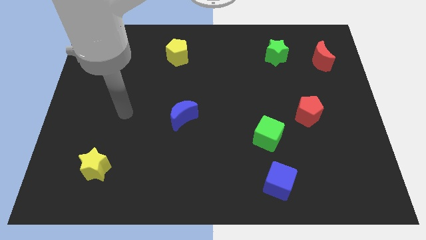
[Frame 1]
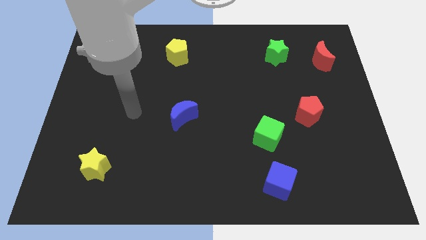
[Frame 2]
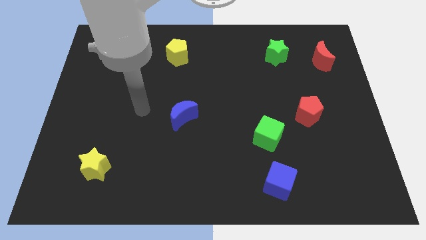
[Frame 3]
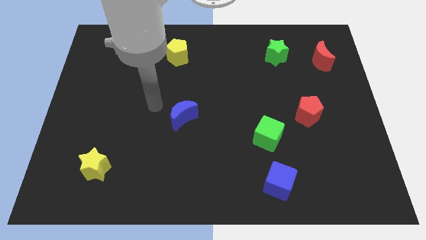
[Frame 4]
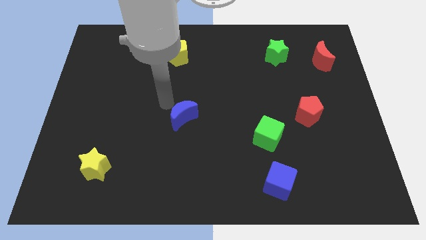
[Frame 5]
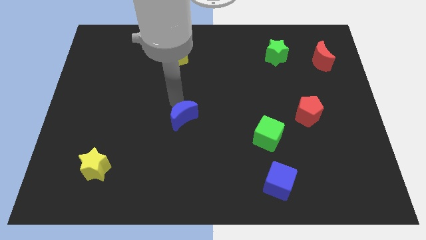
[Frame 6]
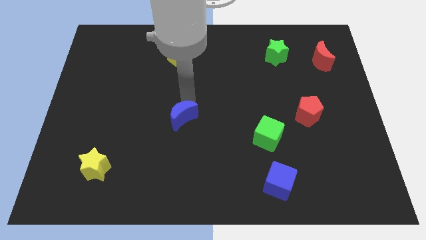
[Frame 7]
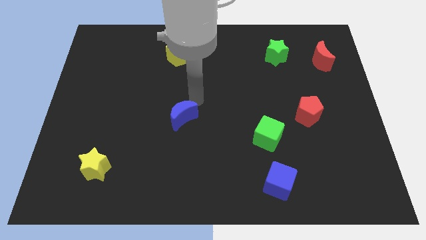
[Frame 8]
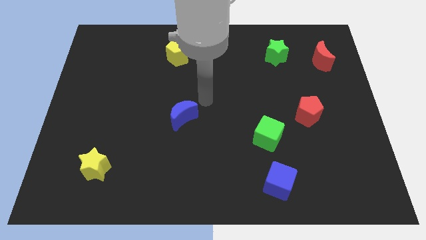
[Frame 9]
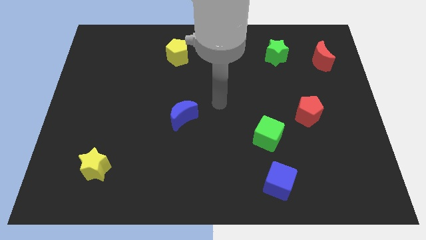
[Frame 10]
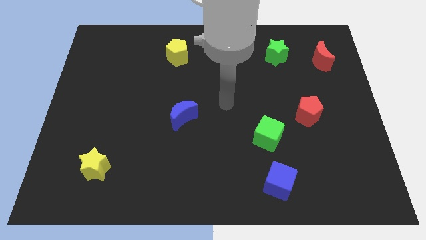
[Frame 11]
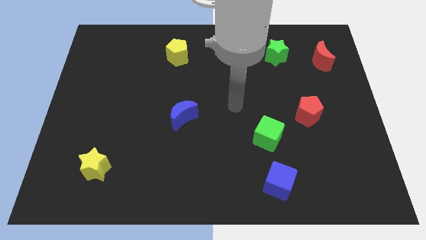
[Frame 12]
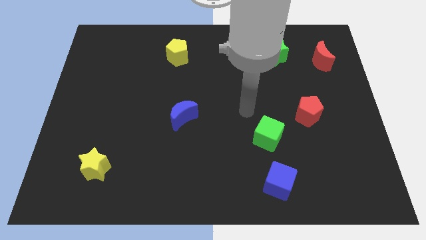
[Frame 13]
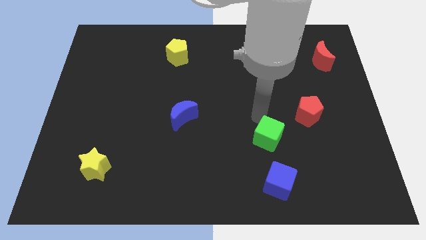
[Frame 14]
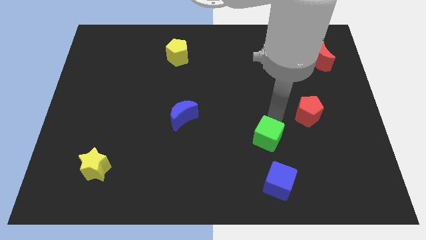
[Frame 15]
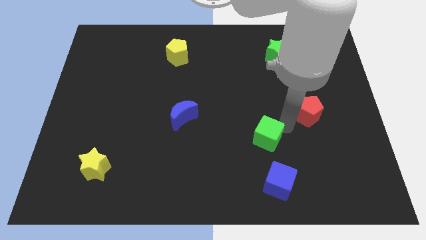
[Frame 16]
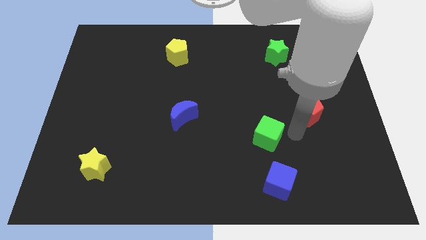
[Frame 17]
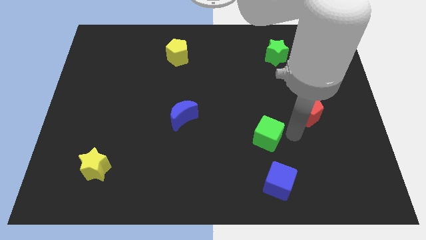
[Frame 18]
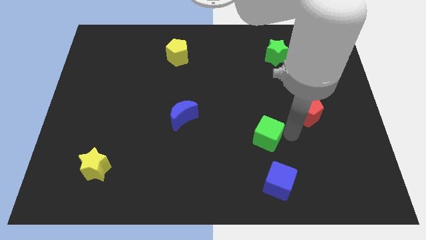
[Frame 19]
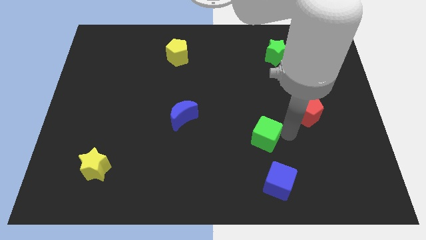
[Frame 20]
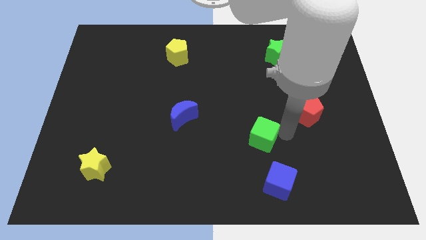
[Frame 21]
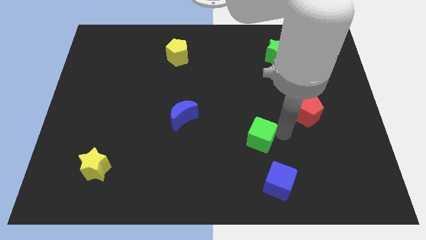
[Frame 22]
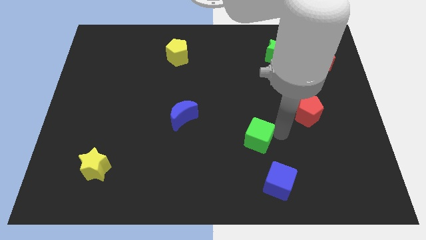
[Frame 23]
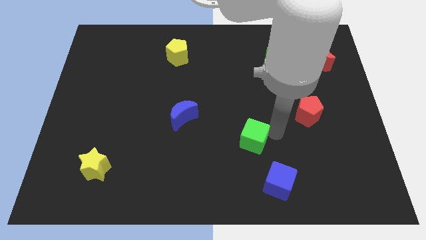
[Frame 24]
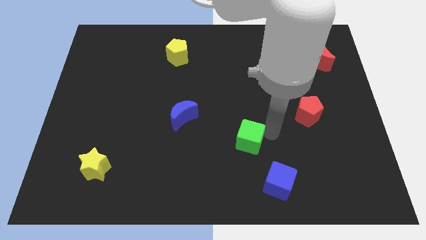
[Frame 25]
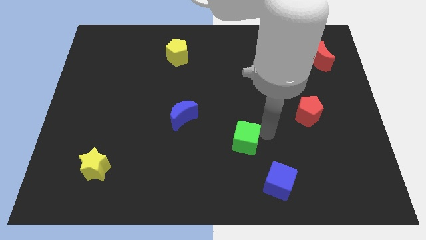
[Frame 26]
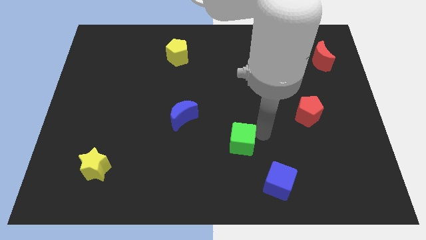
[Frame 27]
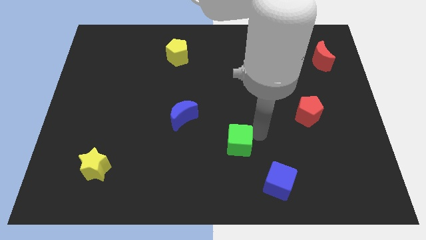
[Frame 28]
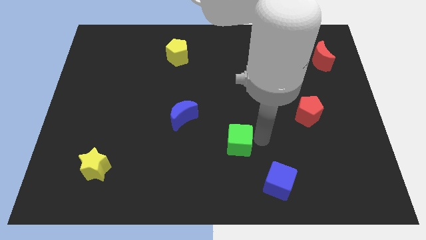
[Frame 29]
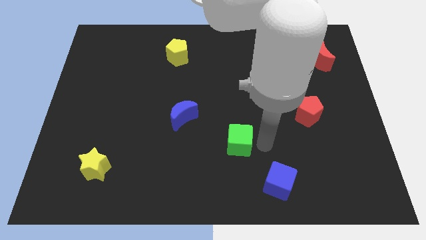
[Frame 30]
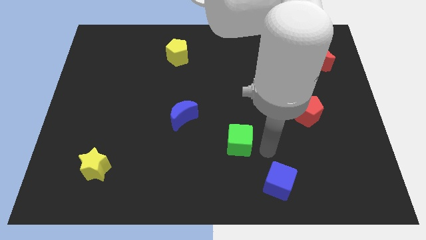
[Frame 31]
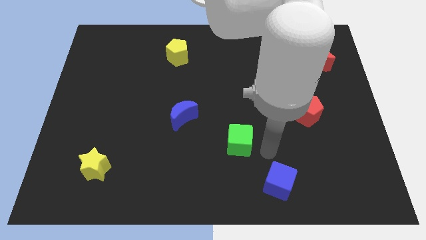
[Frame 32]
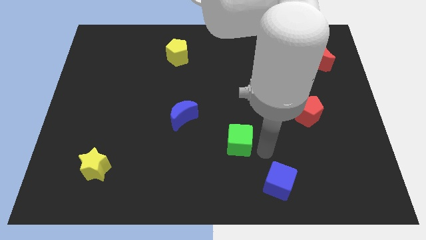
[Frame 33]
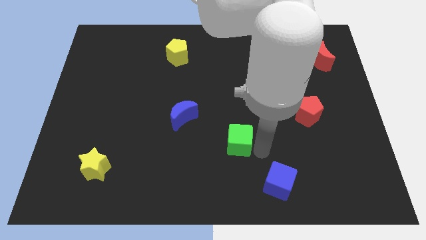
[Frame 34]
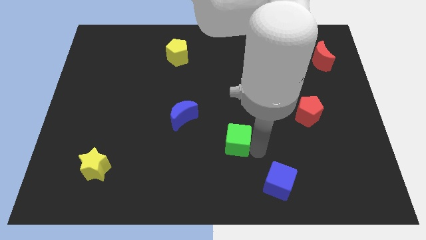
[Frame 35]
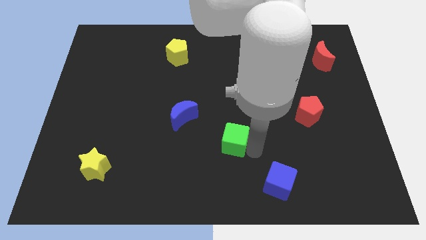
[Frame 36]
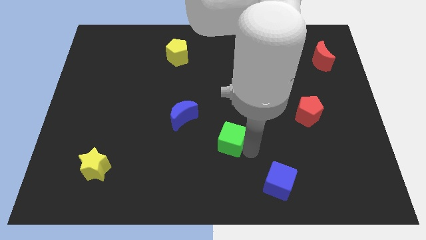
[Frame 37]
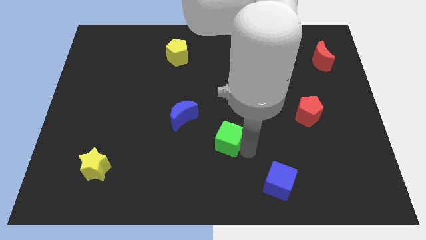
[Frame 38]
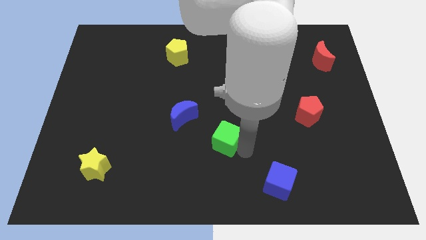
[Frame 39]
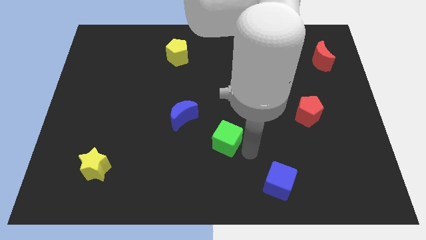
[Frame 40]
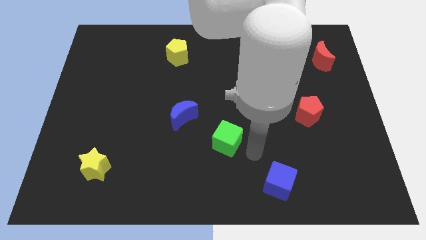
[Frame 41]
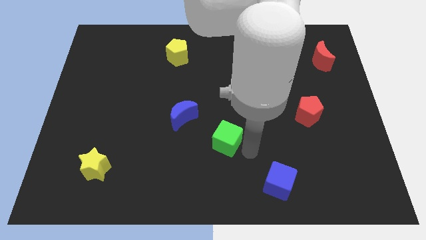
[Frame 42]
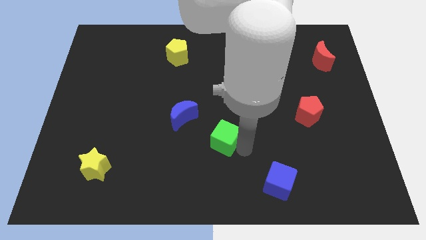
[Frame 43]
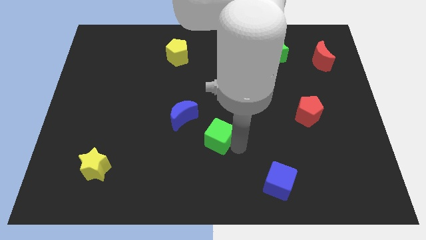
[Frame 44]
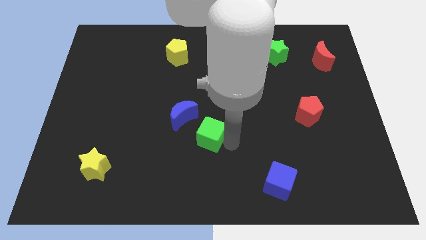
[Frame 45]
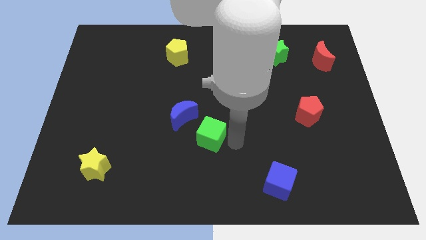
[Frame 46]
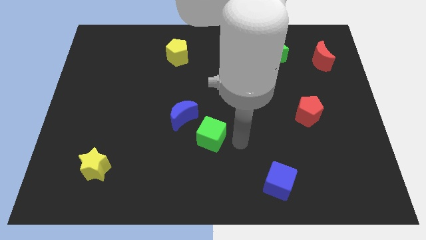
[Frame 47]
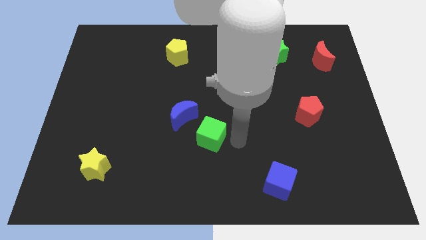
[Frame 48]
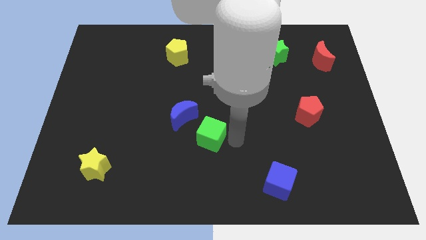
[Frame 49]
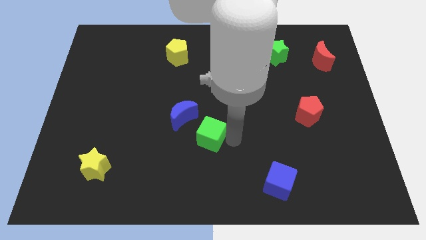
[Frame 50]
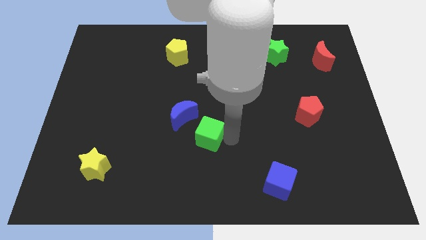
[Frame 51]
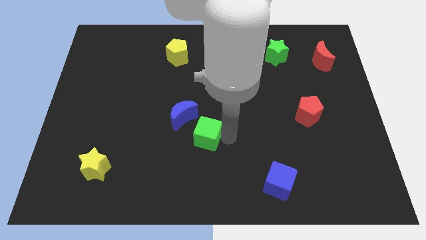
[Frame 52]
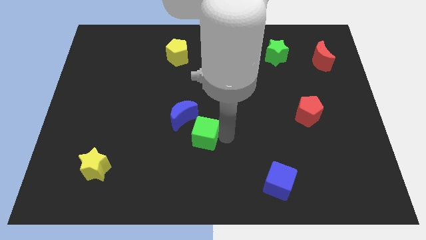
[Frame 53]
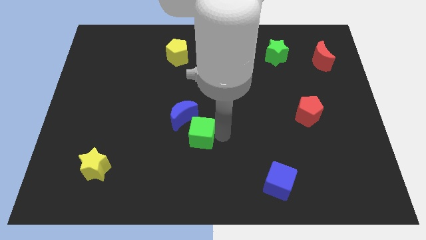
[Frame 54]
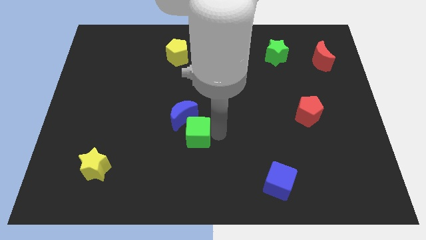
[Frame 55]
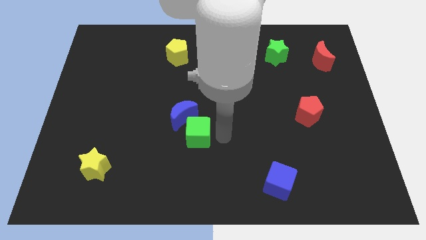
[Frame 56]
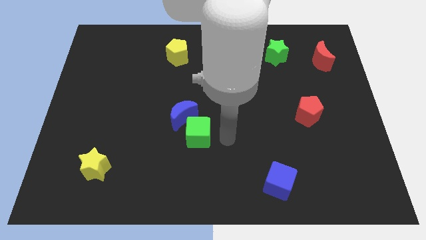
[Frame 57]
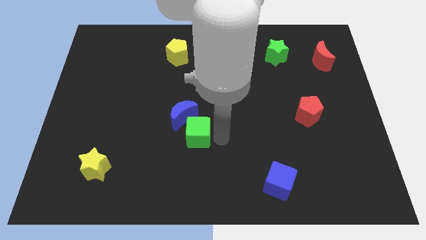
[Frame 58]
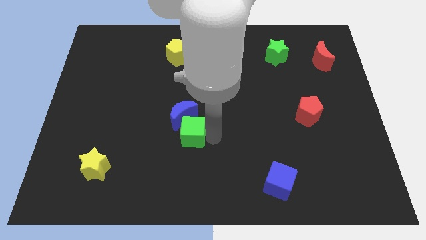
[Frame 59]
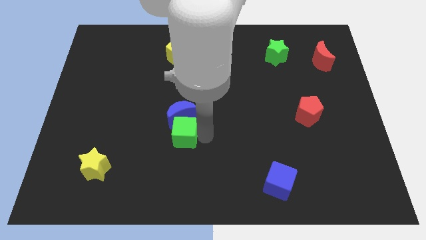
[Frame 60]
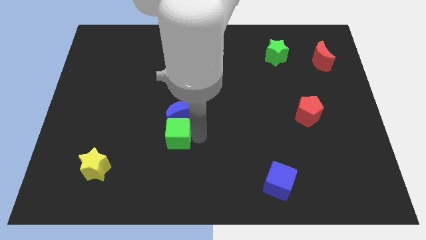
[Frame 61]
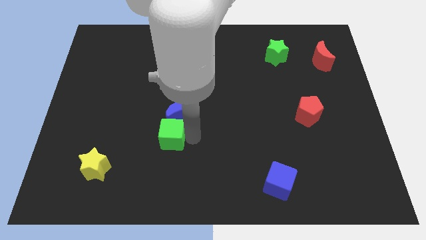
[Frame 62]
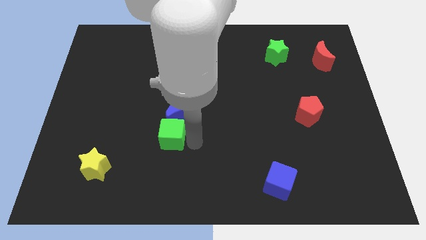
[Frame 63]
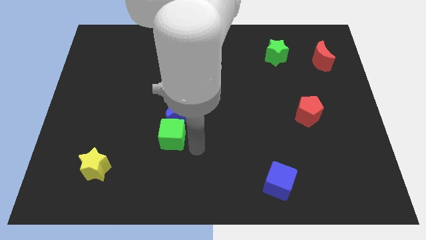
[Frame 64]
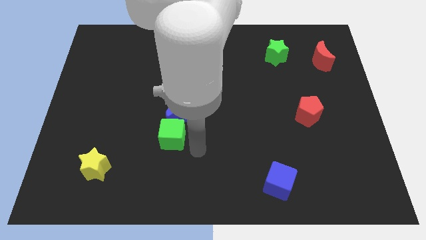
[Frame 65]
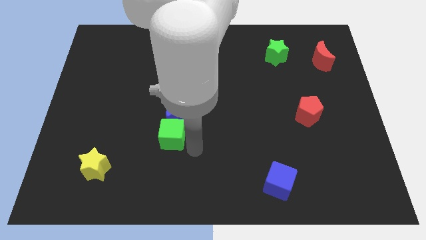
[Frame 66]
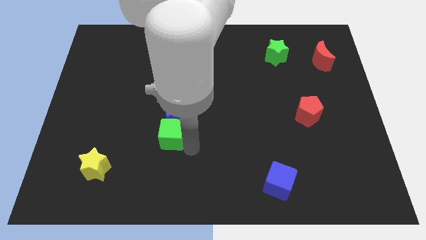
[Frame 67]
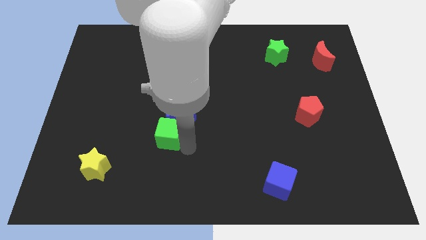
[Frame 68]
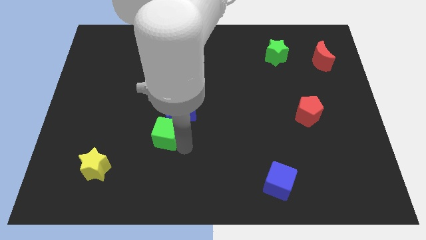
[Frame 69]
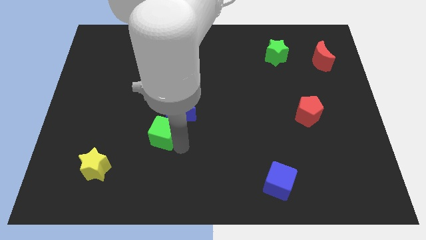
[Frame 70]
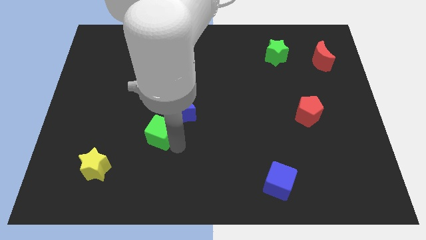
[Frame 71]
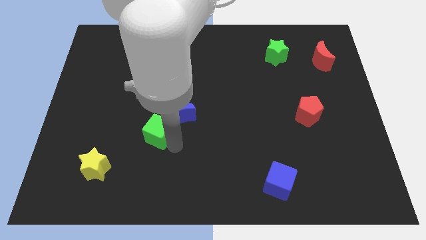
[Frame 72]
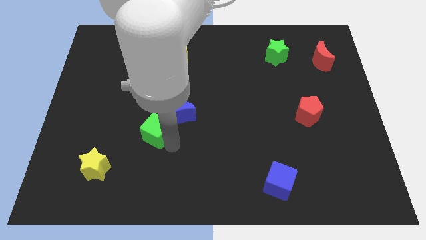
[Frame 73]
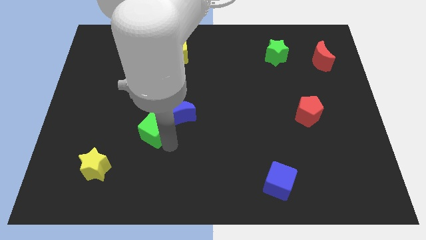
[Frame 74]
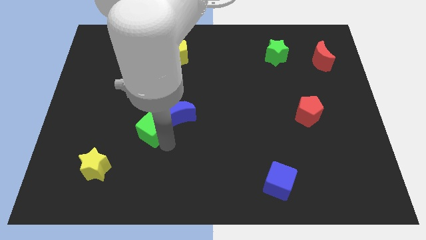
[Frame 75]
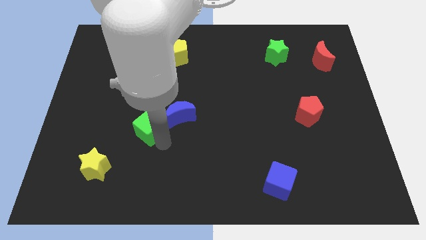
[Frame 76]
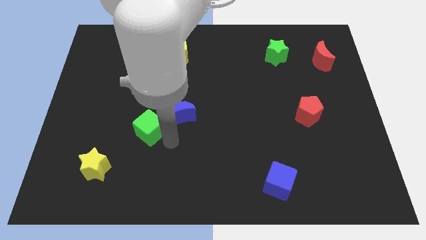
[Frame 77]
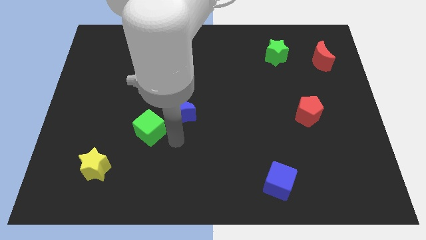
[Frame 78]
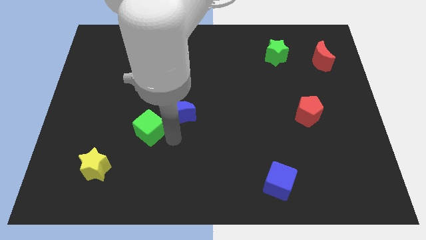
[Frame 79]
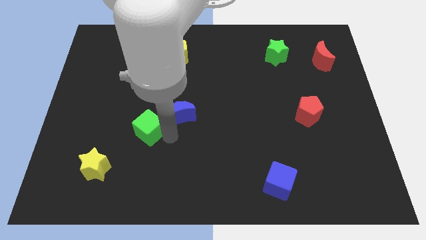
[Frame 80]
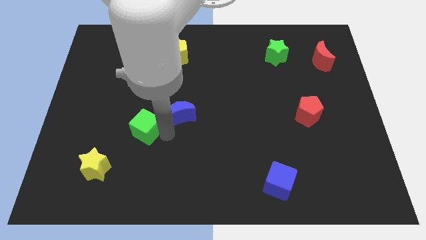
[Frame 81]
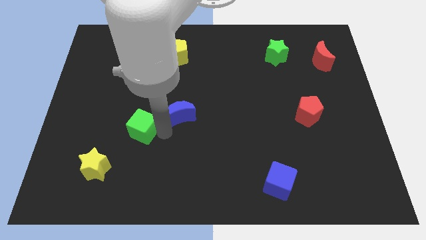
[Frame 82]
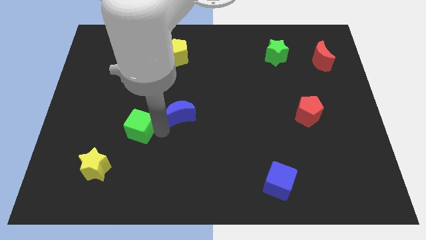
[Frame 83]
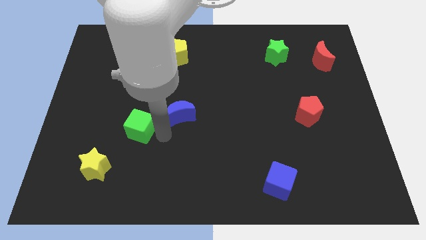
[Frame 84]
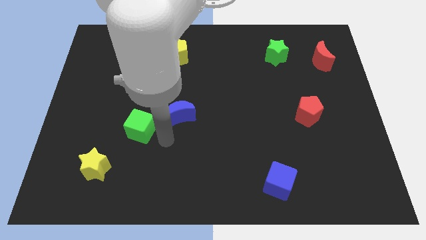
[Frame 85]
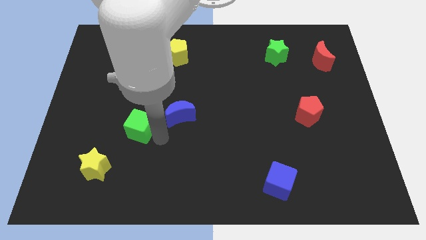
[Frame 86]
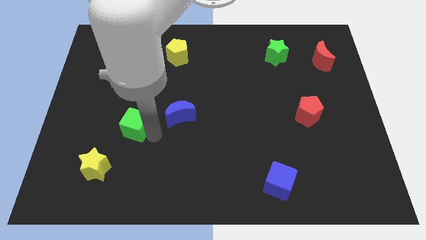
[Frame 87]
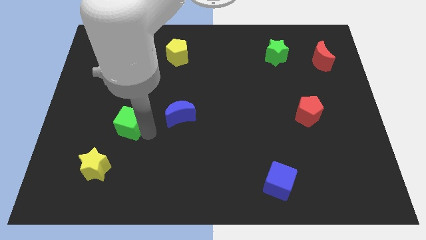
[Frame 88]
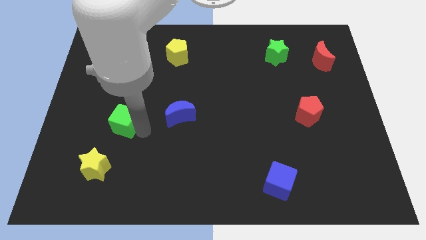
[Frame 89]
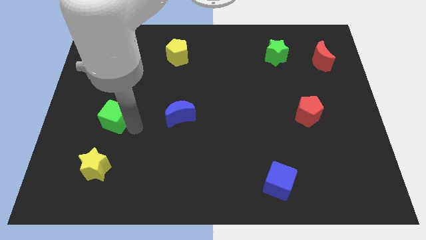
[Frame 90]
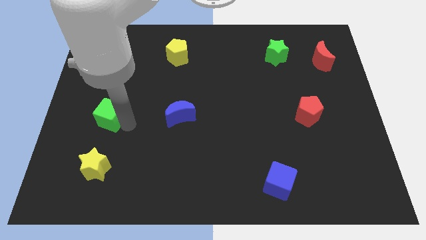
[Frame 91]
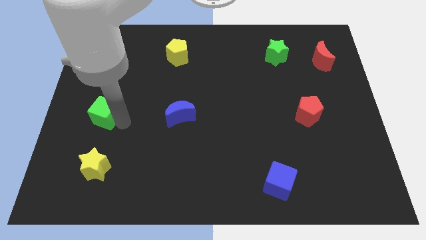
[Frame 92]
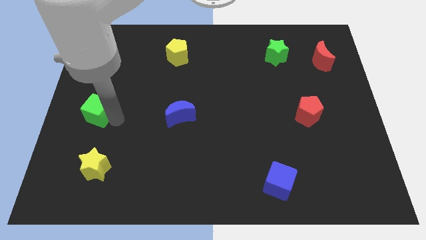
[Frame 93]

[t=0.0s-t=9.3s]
put the green cube to the center left
